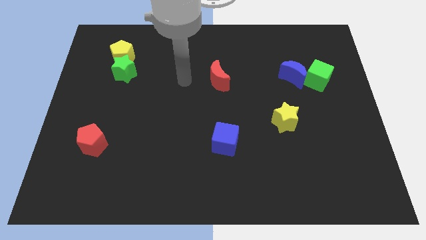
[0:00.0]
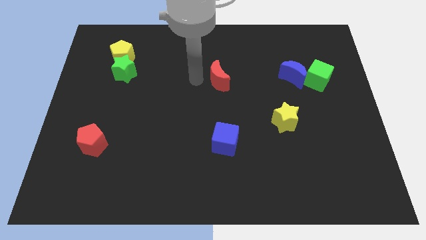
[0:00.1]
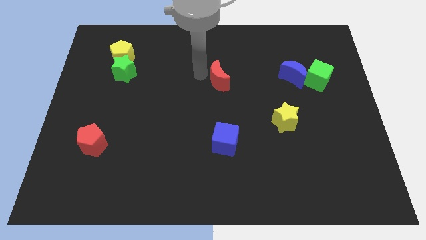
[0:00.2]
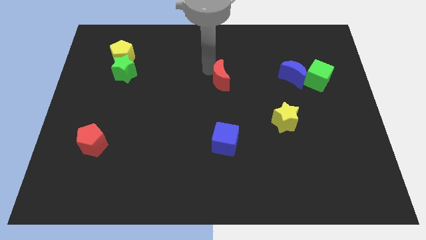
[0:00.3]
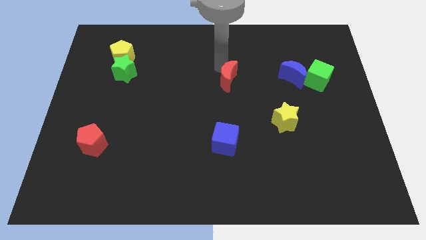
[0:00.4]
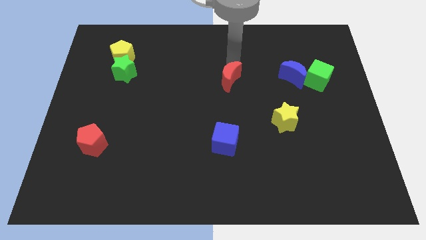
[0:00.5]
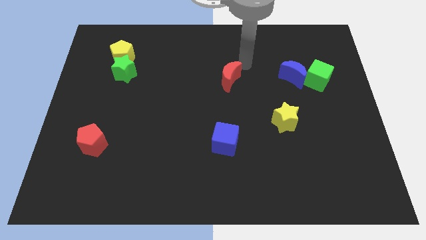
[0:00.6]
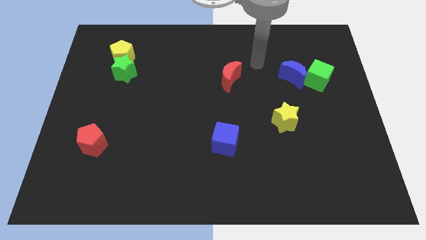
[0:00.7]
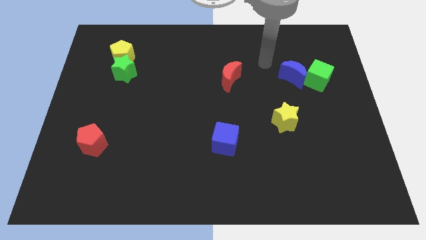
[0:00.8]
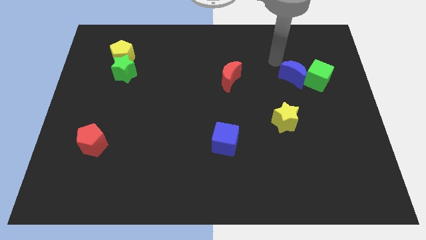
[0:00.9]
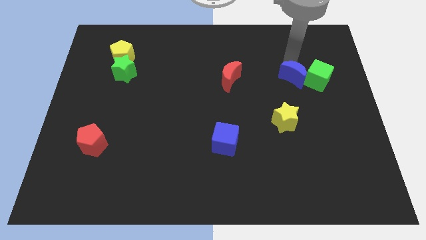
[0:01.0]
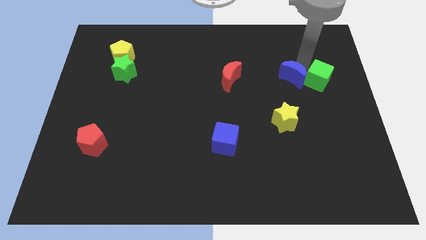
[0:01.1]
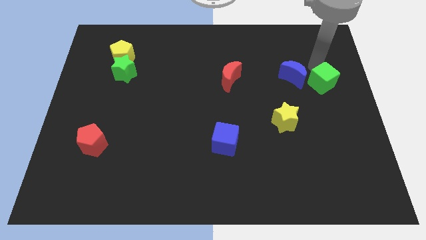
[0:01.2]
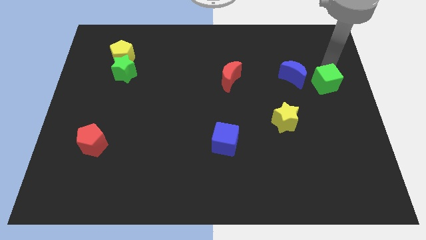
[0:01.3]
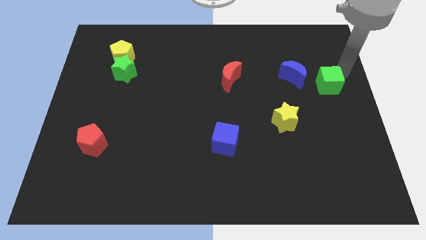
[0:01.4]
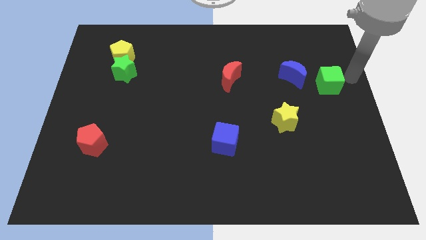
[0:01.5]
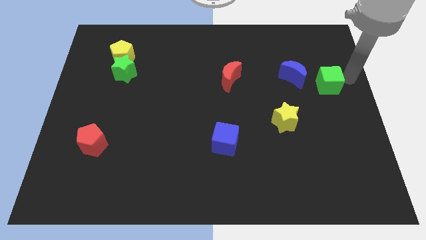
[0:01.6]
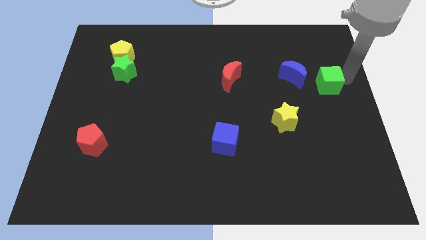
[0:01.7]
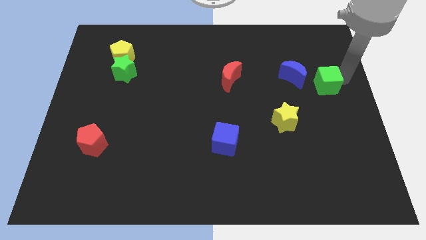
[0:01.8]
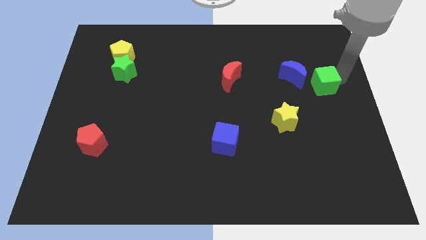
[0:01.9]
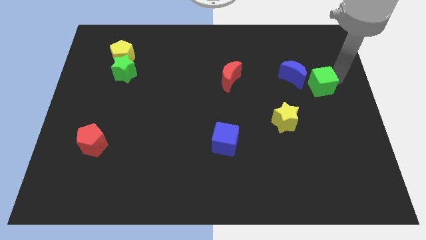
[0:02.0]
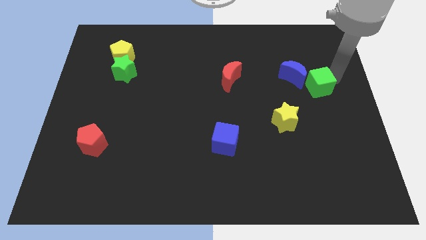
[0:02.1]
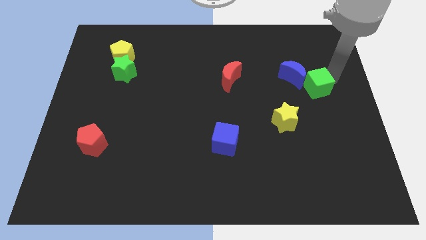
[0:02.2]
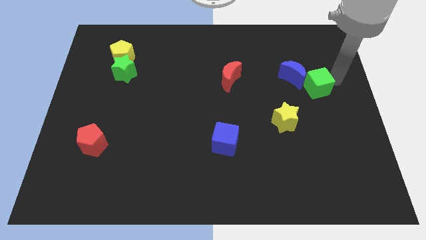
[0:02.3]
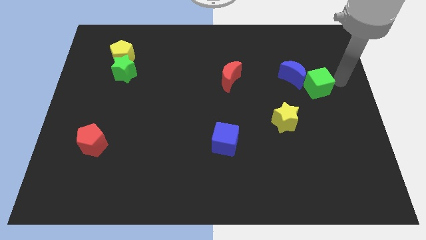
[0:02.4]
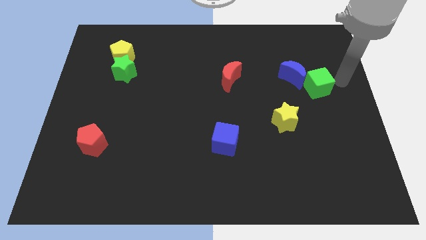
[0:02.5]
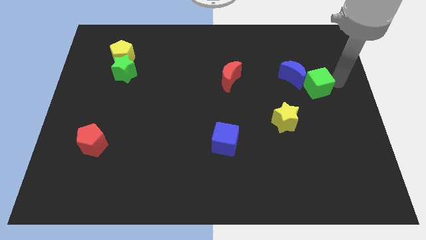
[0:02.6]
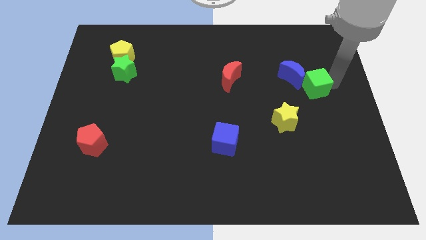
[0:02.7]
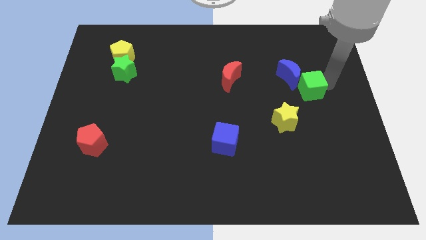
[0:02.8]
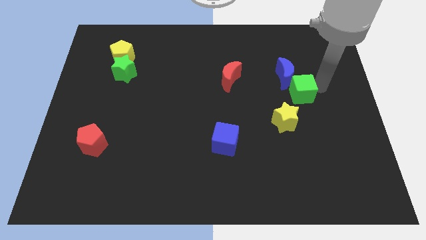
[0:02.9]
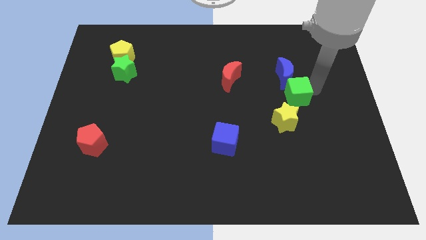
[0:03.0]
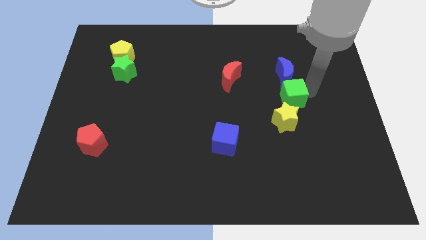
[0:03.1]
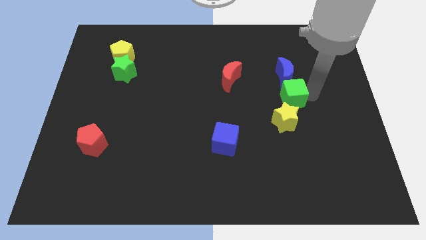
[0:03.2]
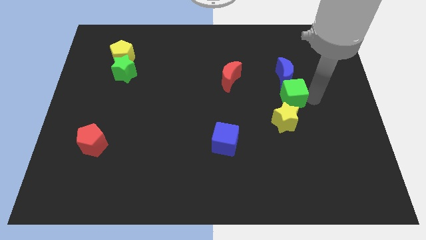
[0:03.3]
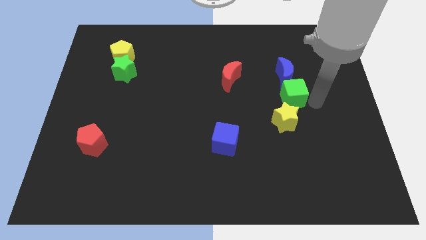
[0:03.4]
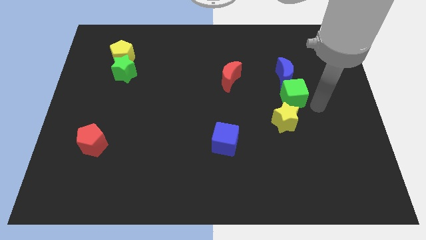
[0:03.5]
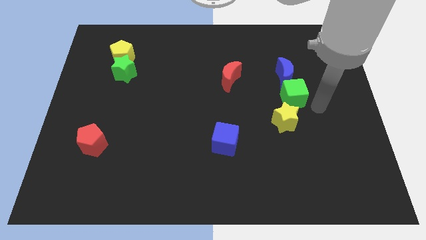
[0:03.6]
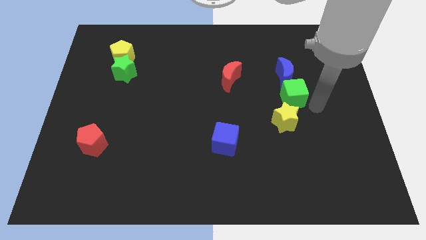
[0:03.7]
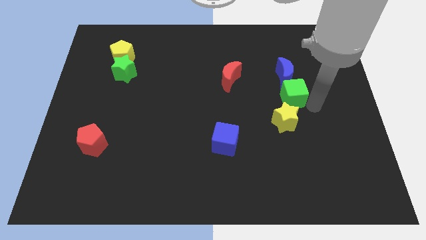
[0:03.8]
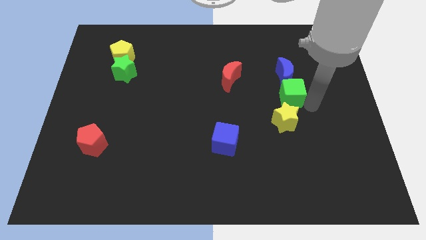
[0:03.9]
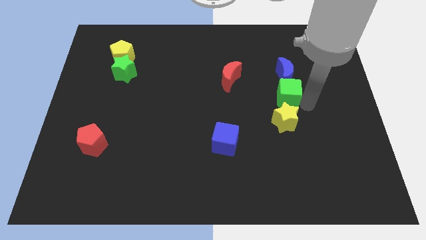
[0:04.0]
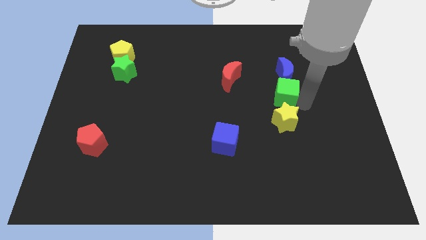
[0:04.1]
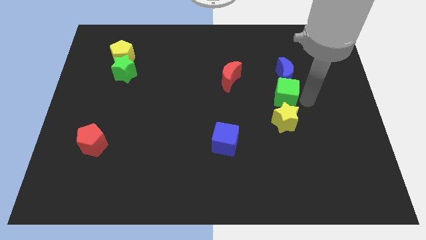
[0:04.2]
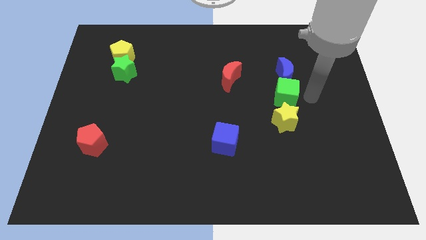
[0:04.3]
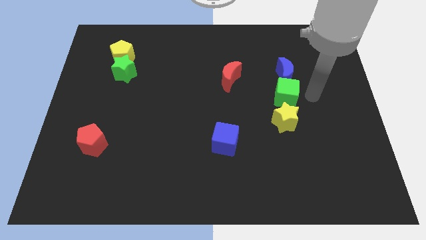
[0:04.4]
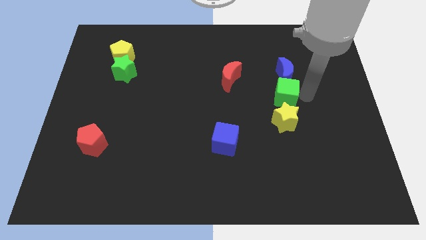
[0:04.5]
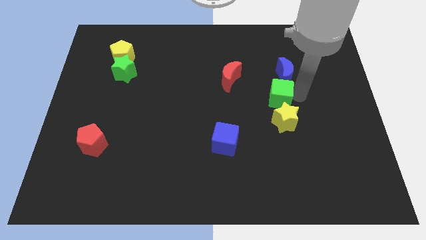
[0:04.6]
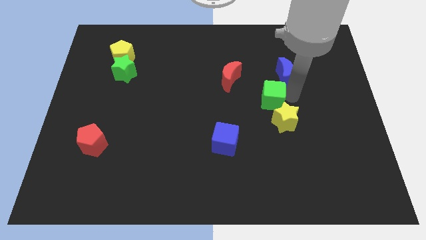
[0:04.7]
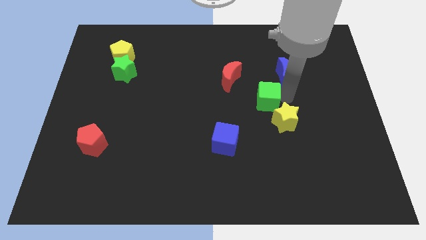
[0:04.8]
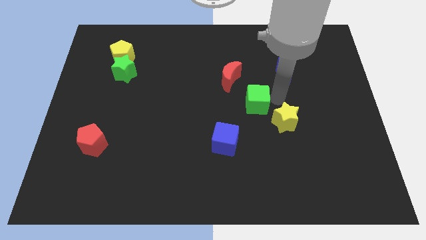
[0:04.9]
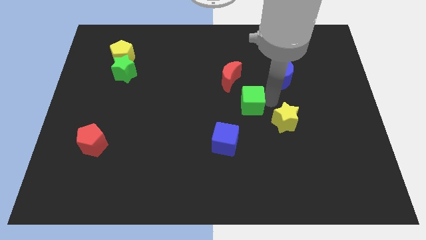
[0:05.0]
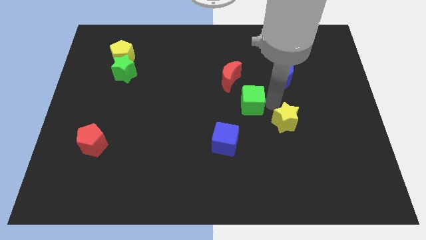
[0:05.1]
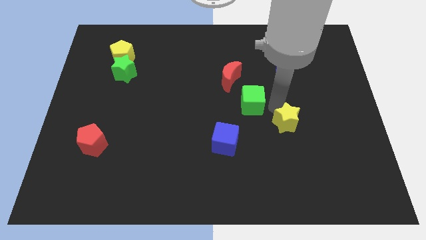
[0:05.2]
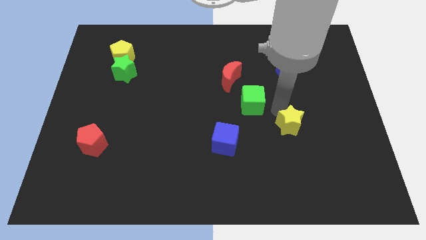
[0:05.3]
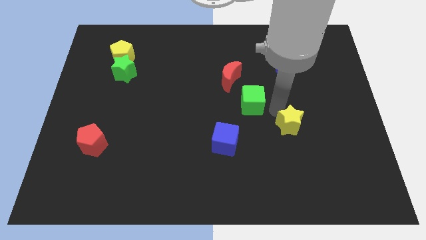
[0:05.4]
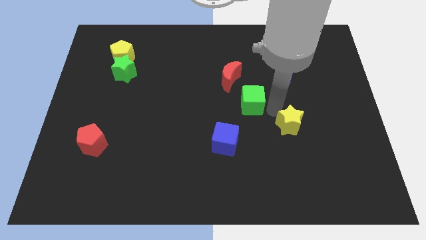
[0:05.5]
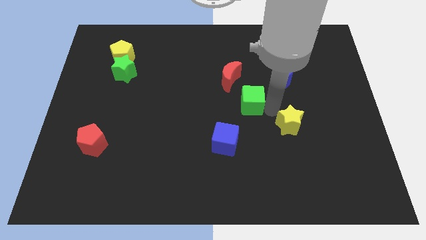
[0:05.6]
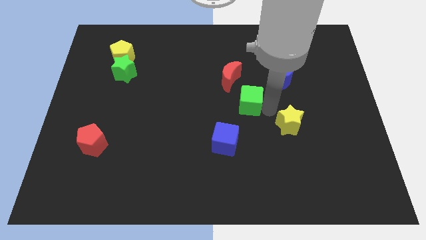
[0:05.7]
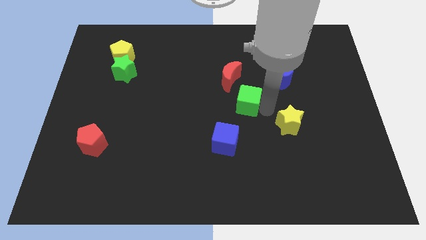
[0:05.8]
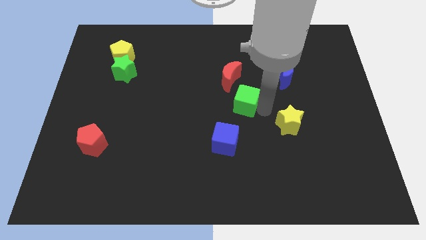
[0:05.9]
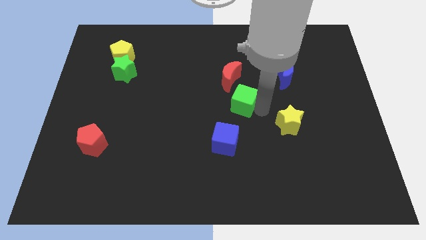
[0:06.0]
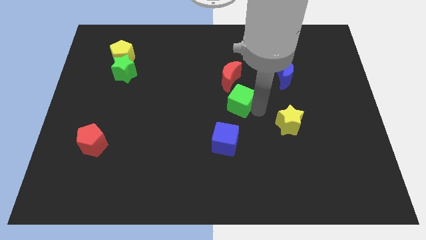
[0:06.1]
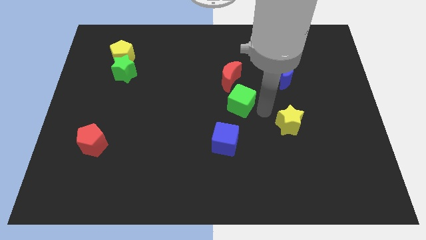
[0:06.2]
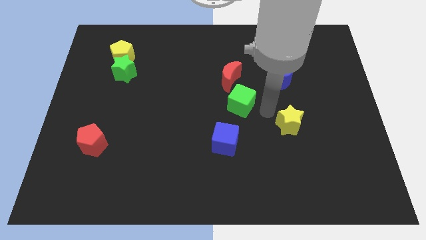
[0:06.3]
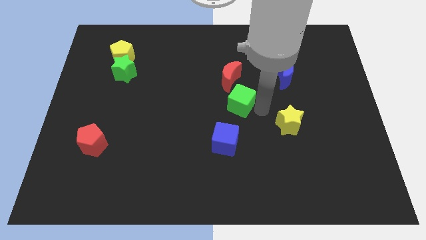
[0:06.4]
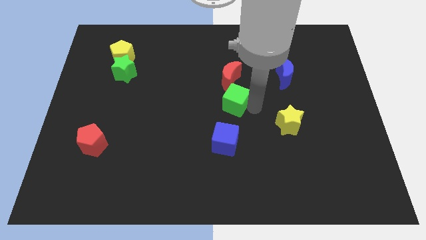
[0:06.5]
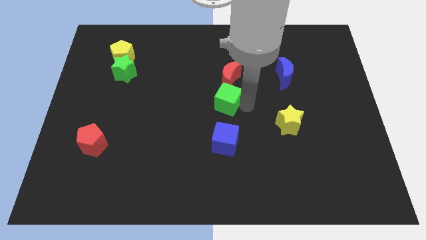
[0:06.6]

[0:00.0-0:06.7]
push the green cube to the left

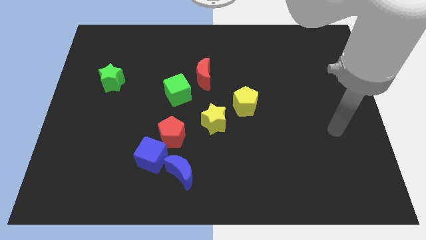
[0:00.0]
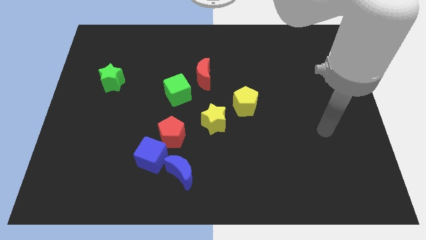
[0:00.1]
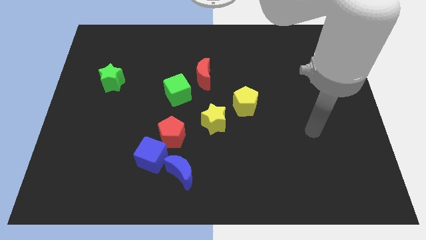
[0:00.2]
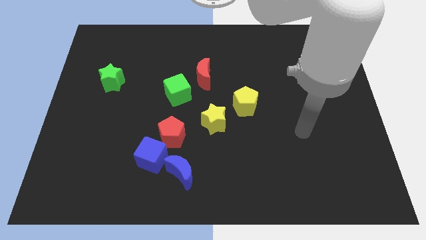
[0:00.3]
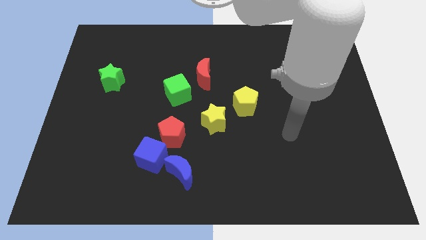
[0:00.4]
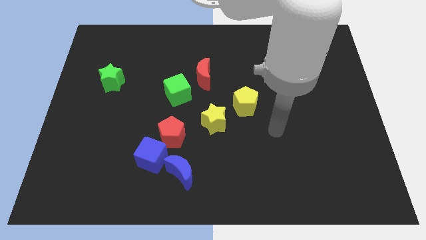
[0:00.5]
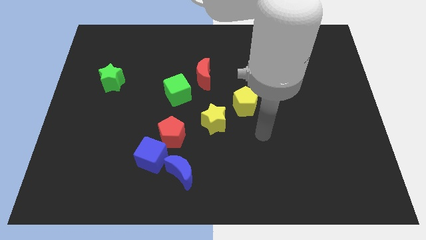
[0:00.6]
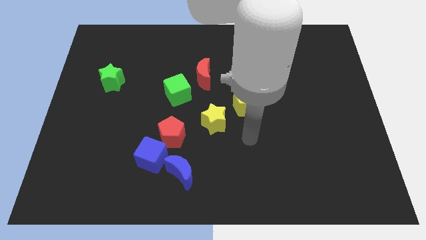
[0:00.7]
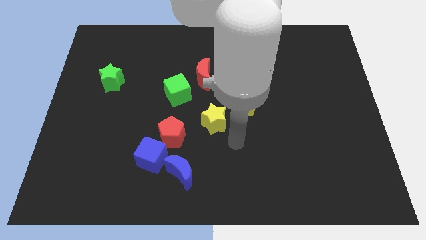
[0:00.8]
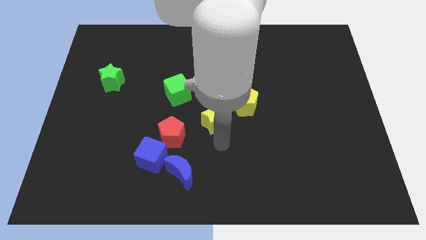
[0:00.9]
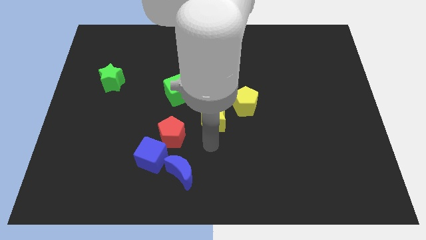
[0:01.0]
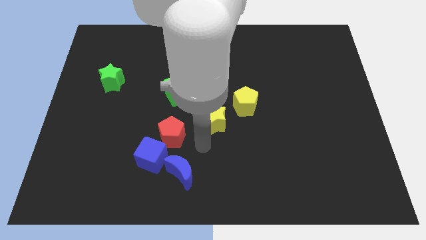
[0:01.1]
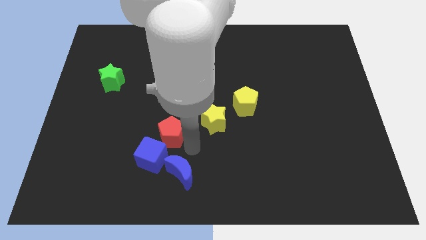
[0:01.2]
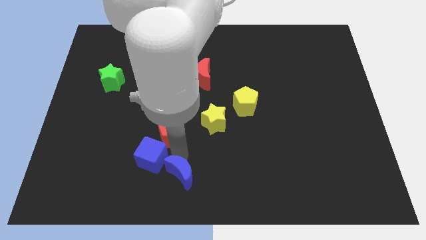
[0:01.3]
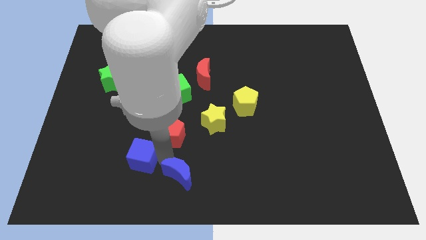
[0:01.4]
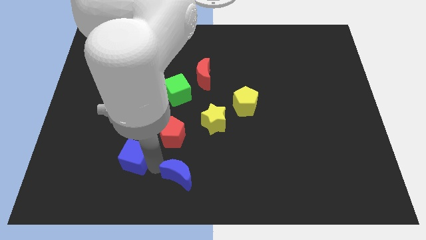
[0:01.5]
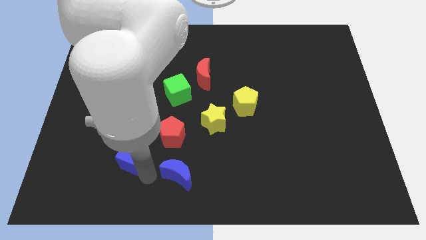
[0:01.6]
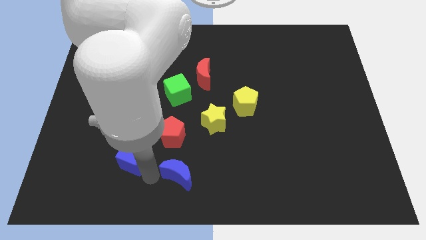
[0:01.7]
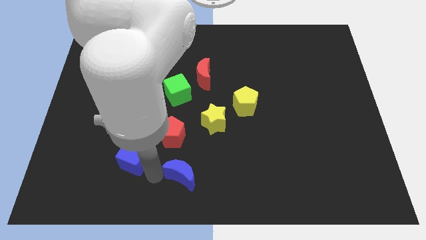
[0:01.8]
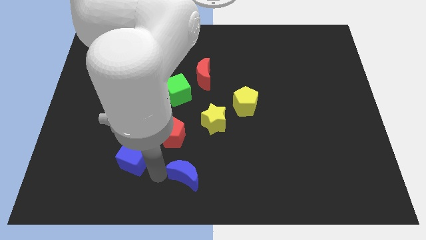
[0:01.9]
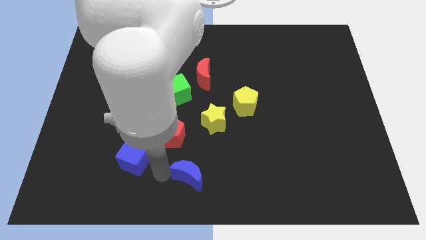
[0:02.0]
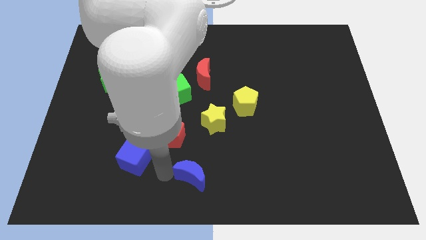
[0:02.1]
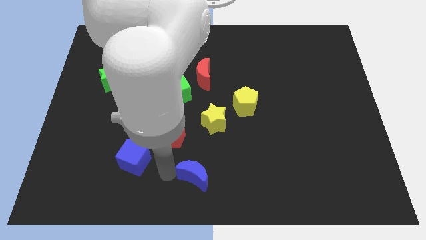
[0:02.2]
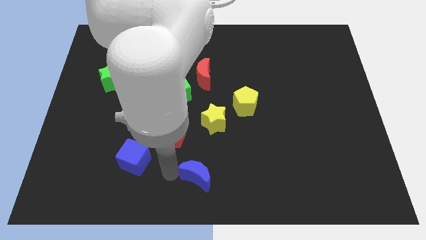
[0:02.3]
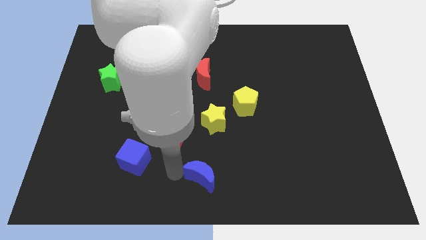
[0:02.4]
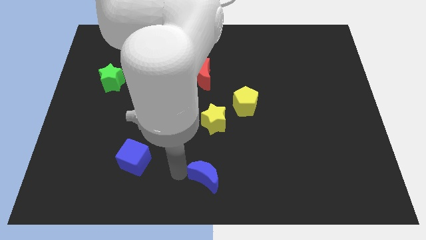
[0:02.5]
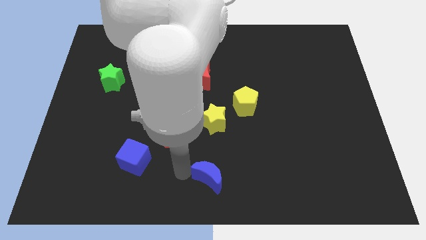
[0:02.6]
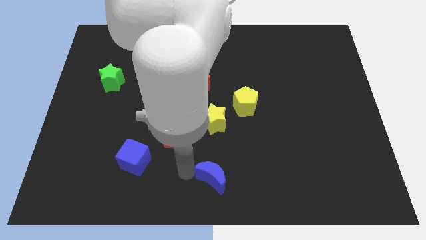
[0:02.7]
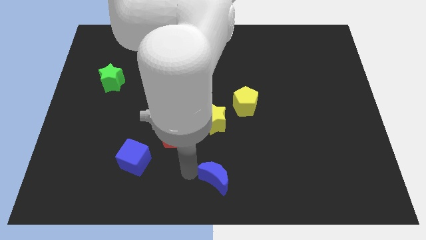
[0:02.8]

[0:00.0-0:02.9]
move the blue moon somewhat to the right
